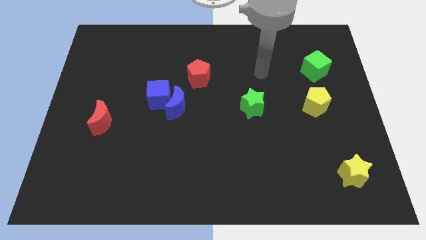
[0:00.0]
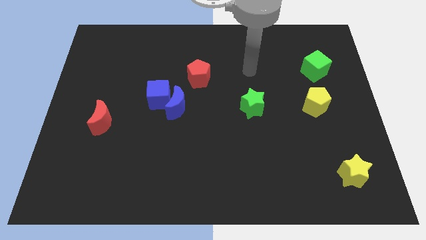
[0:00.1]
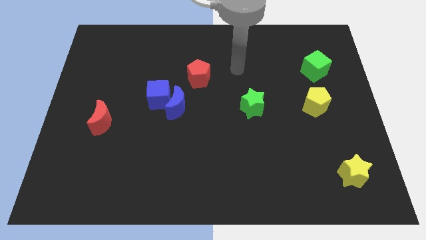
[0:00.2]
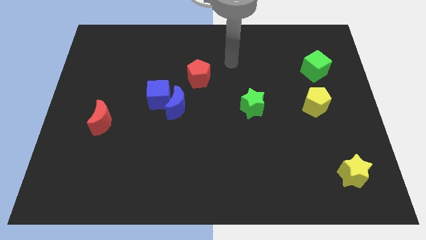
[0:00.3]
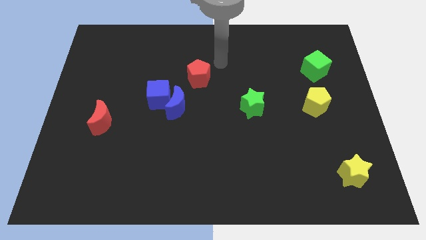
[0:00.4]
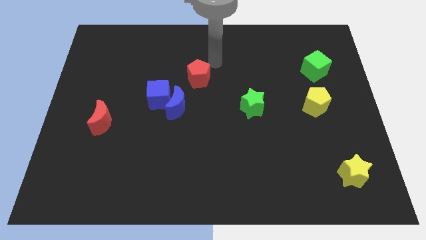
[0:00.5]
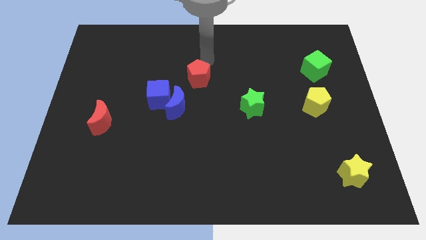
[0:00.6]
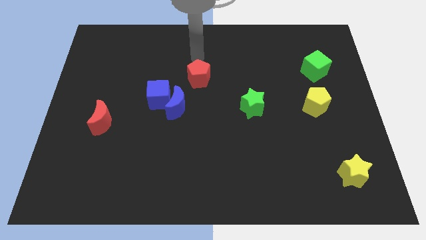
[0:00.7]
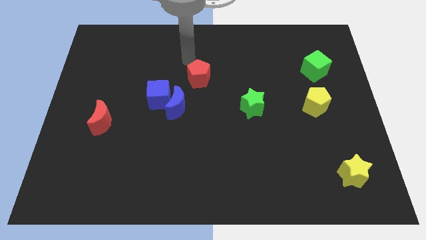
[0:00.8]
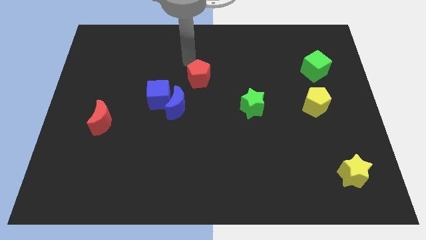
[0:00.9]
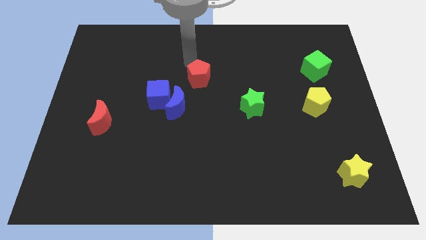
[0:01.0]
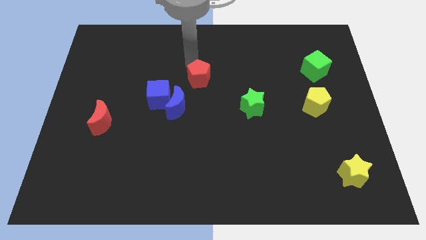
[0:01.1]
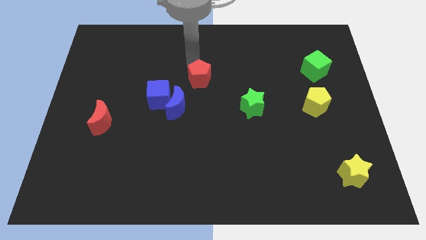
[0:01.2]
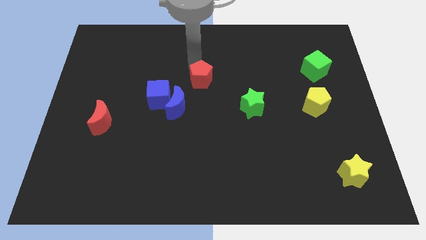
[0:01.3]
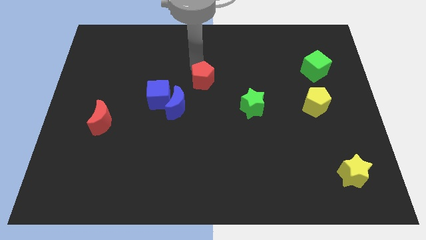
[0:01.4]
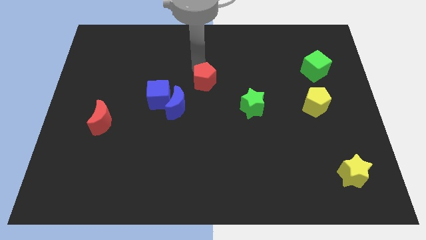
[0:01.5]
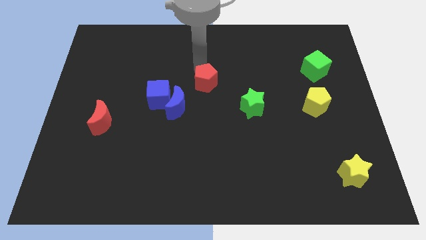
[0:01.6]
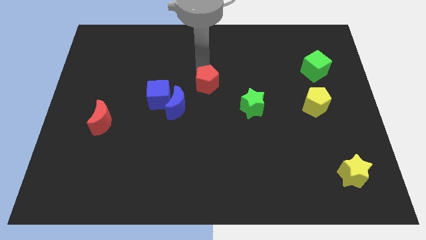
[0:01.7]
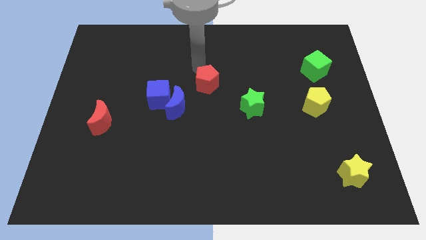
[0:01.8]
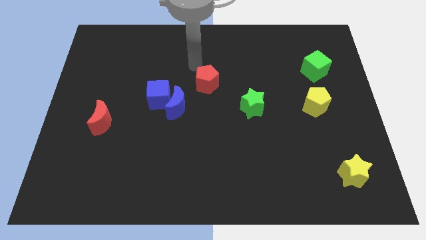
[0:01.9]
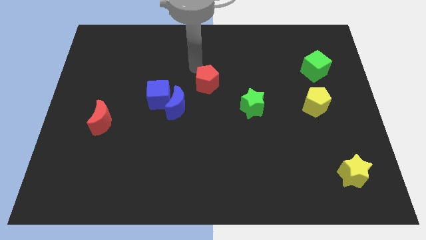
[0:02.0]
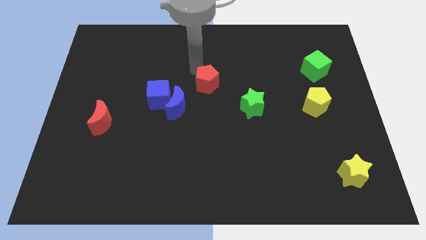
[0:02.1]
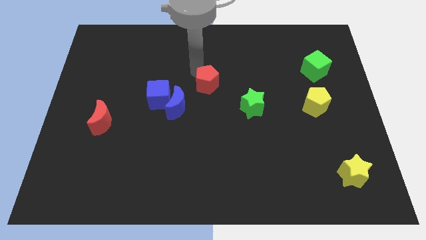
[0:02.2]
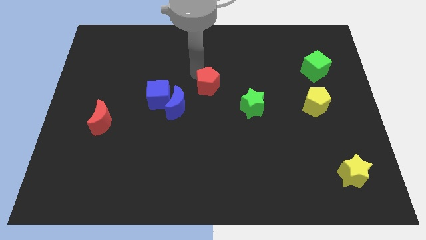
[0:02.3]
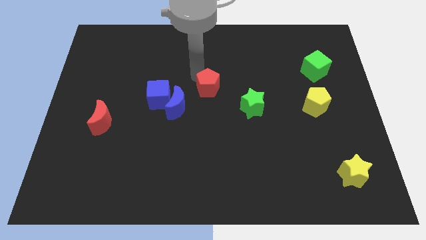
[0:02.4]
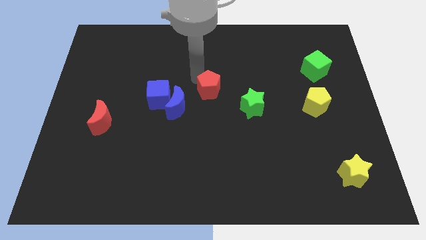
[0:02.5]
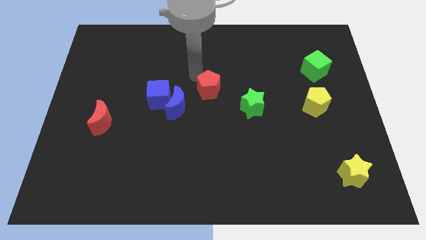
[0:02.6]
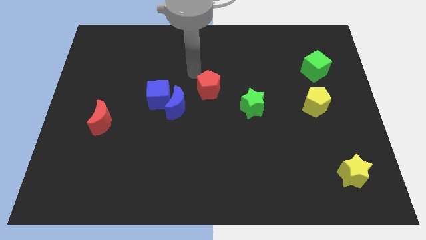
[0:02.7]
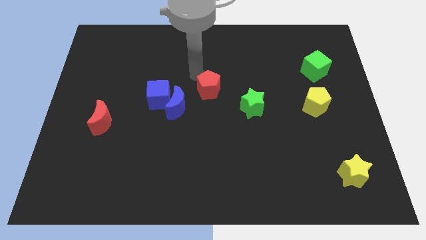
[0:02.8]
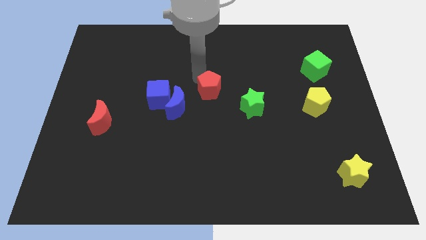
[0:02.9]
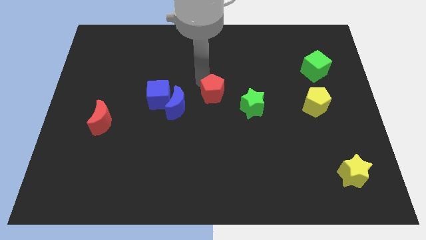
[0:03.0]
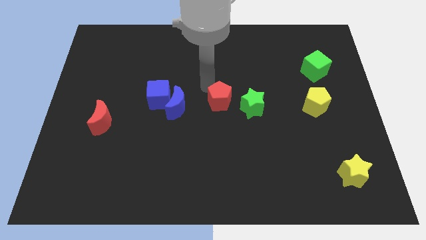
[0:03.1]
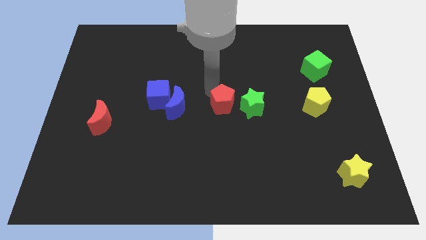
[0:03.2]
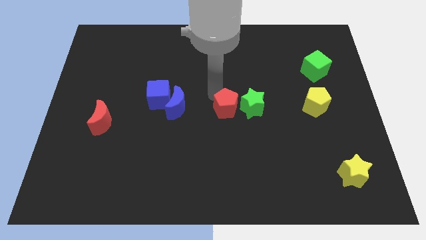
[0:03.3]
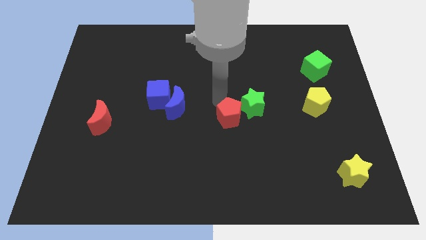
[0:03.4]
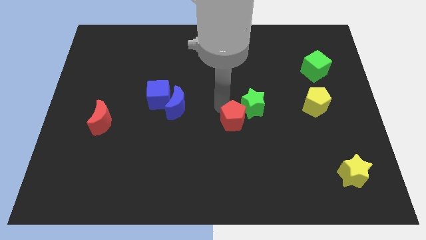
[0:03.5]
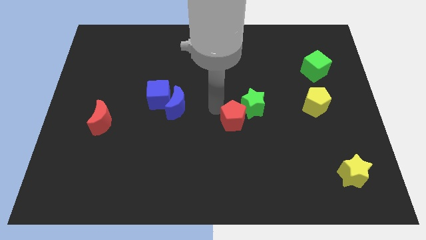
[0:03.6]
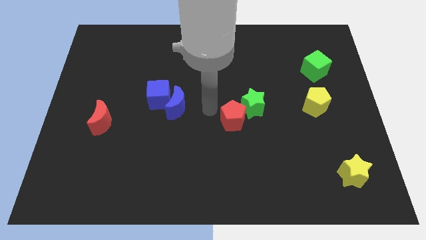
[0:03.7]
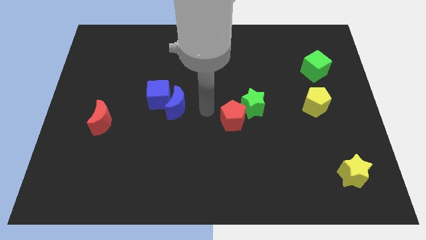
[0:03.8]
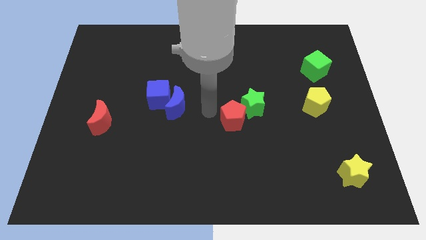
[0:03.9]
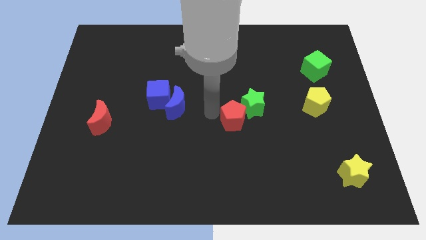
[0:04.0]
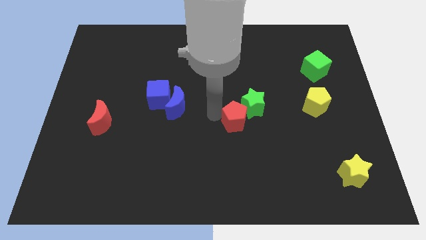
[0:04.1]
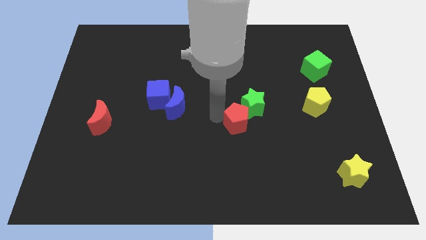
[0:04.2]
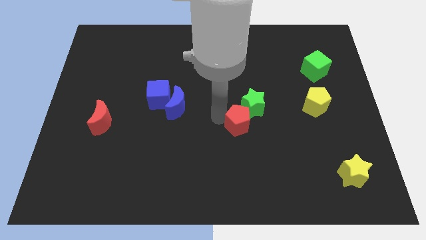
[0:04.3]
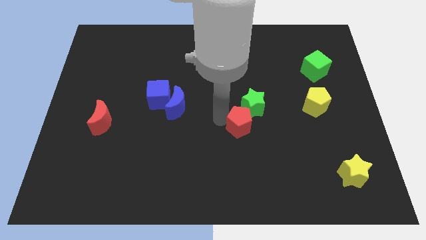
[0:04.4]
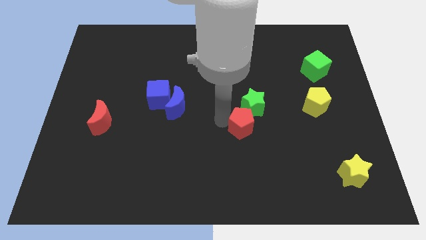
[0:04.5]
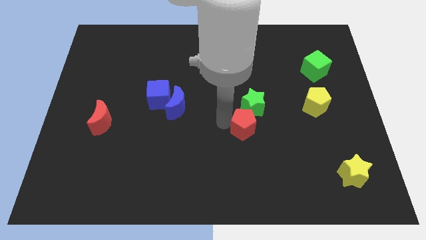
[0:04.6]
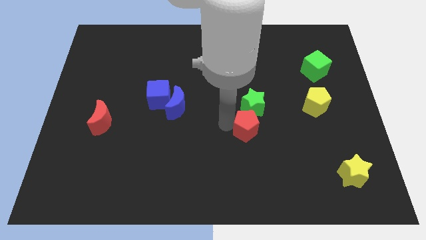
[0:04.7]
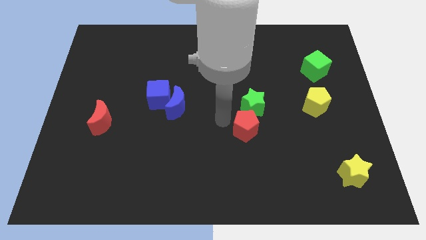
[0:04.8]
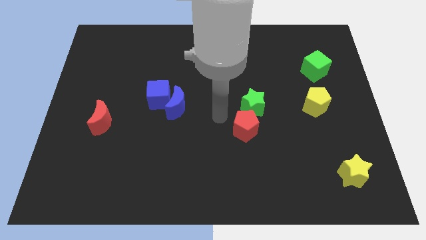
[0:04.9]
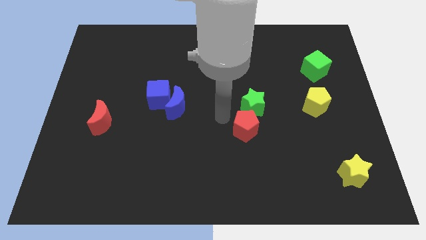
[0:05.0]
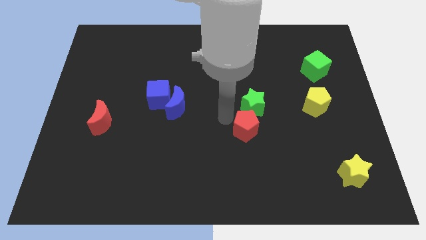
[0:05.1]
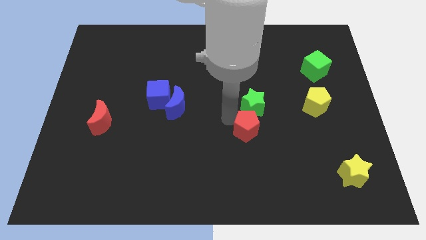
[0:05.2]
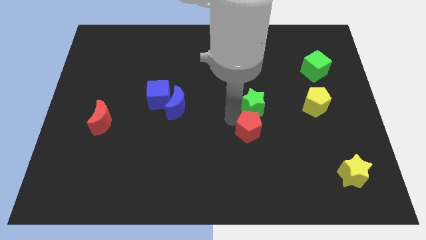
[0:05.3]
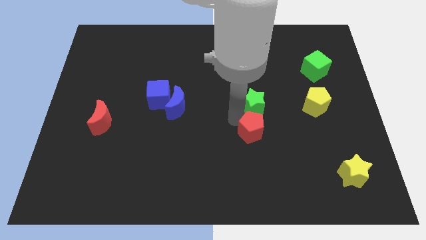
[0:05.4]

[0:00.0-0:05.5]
slide the red pentagon diagonally down and to the right

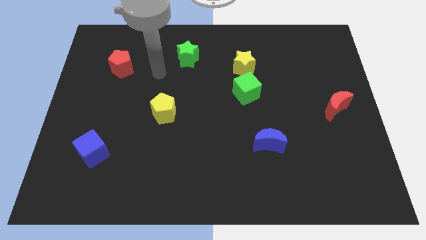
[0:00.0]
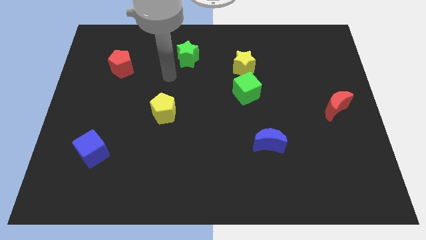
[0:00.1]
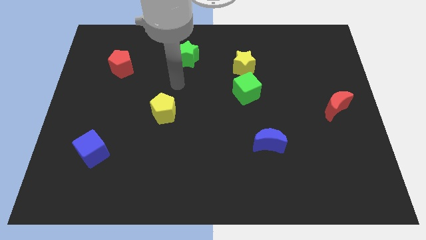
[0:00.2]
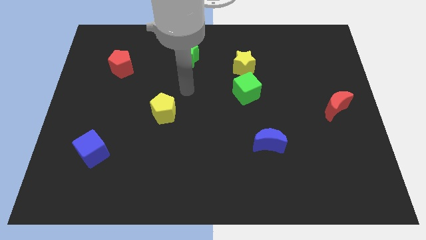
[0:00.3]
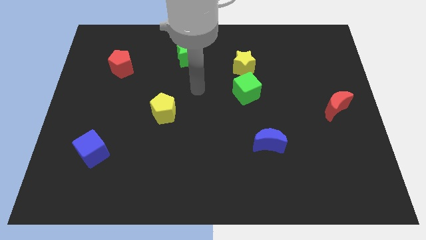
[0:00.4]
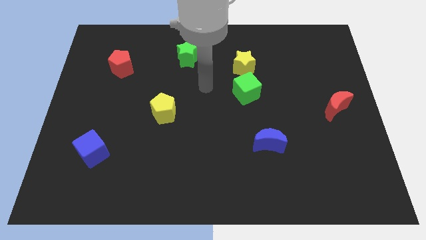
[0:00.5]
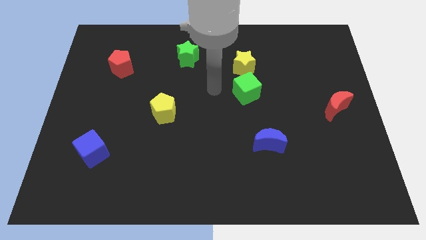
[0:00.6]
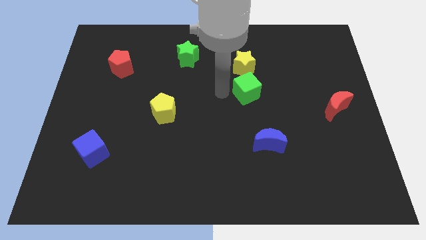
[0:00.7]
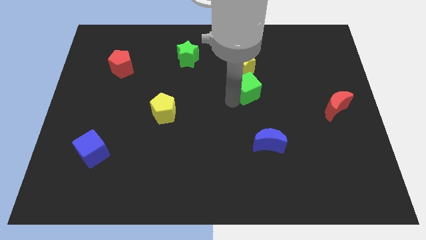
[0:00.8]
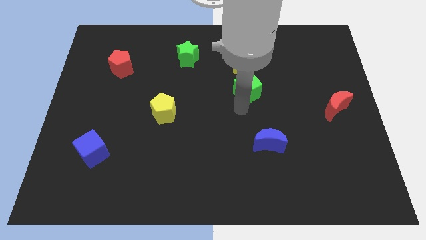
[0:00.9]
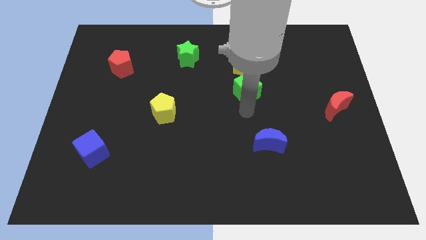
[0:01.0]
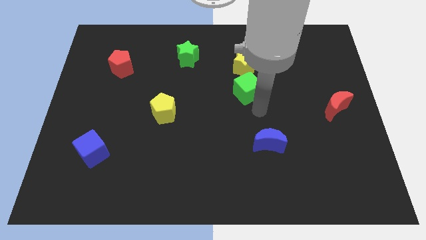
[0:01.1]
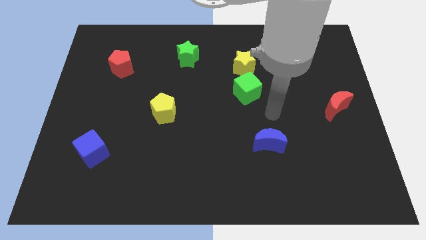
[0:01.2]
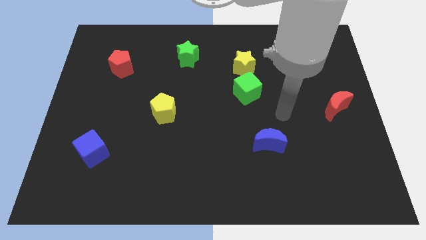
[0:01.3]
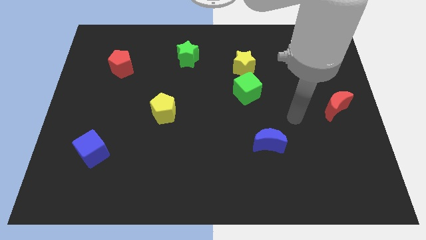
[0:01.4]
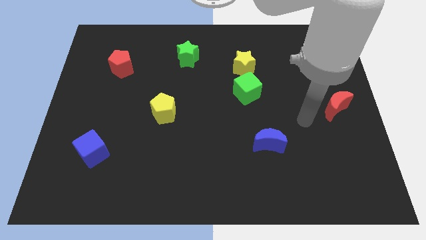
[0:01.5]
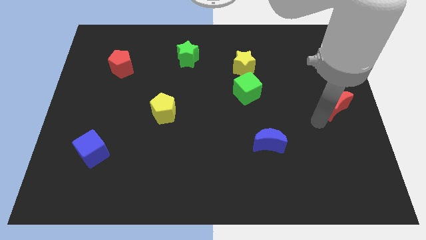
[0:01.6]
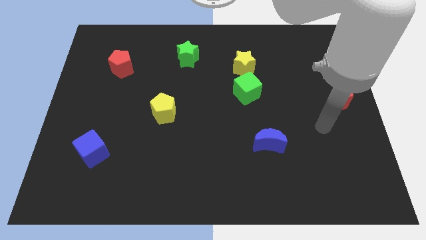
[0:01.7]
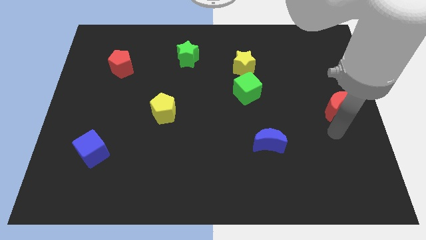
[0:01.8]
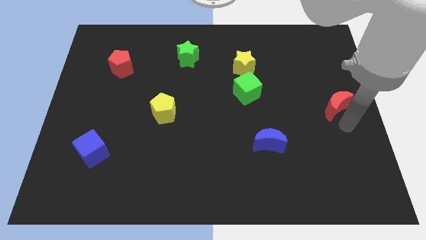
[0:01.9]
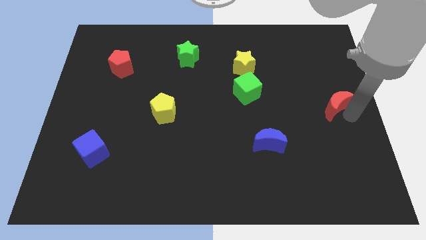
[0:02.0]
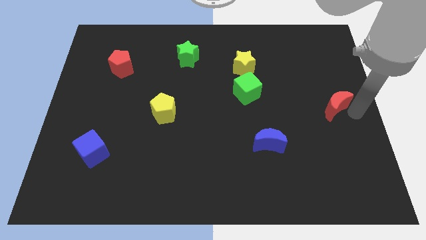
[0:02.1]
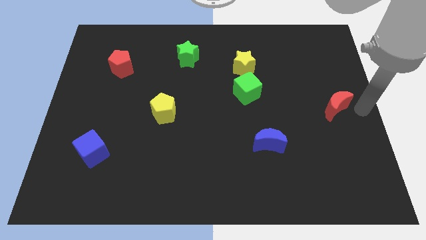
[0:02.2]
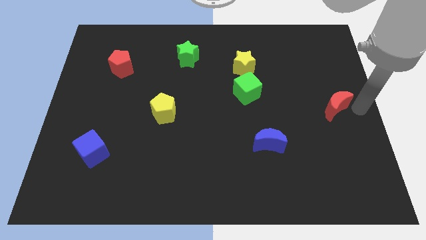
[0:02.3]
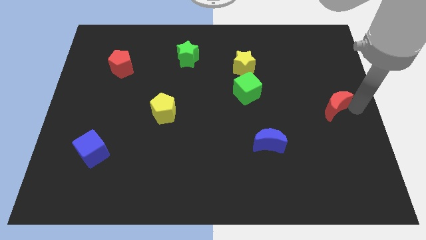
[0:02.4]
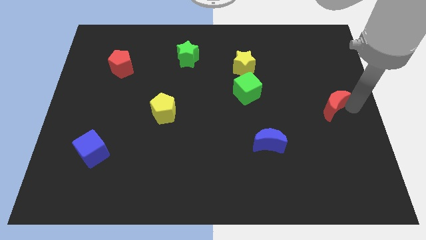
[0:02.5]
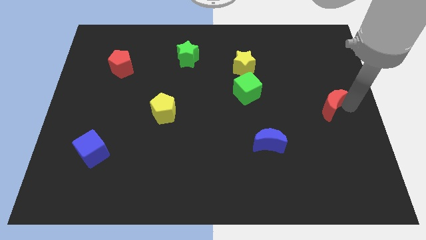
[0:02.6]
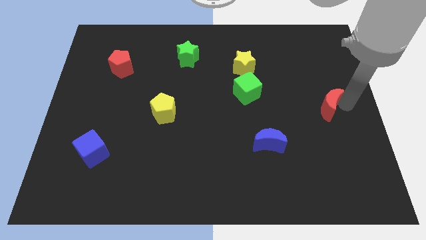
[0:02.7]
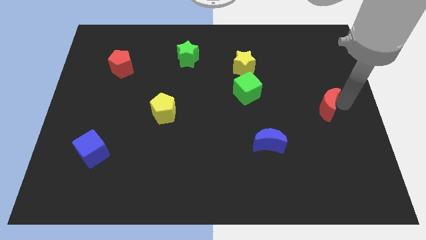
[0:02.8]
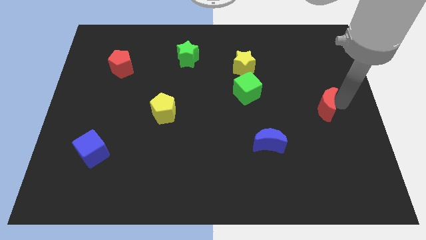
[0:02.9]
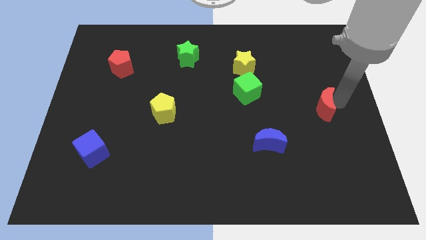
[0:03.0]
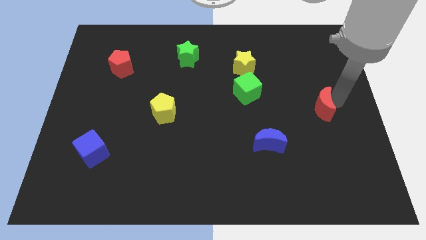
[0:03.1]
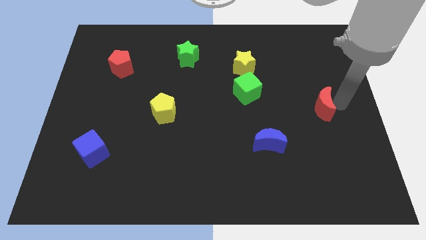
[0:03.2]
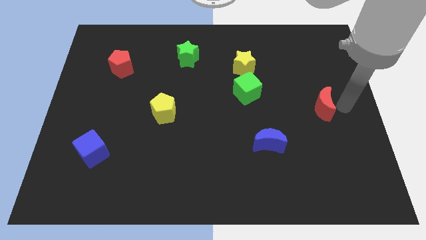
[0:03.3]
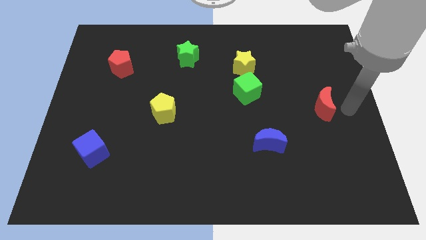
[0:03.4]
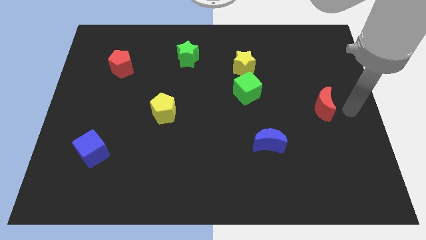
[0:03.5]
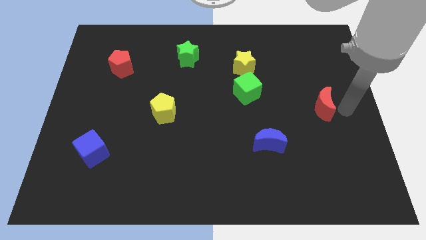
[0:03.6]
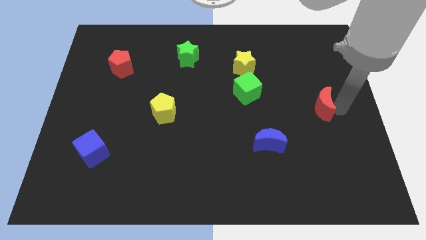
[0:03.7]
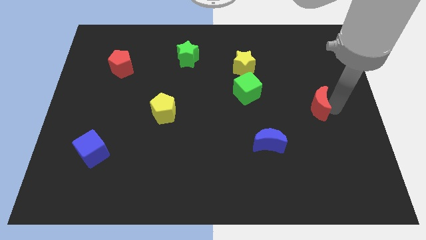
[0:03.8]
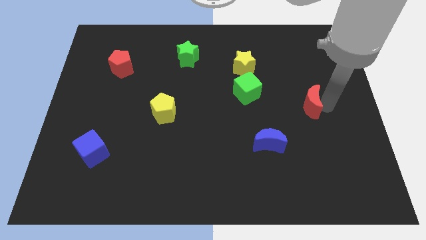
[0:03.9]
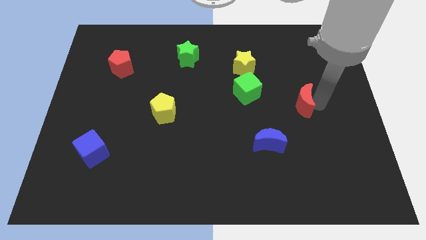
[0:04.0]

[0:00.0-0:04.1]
slightly push the red moon to the left
